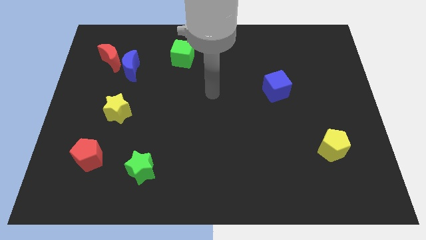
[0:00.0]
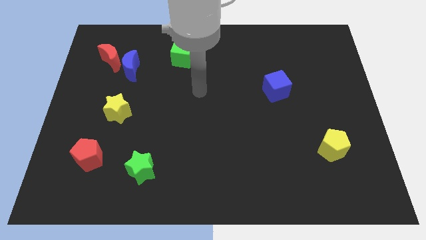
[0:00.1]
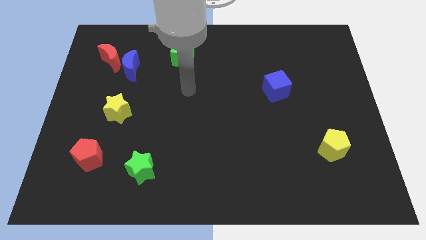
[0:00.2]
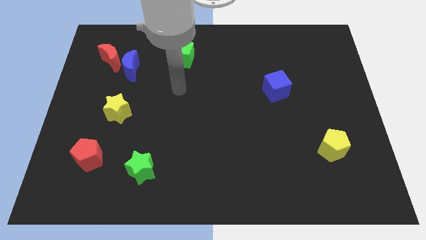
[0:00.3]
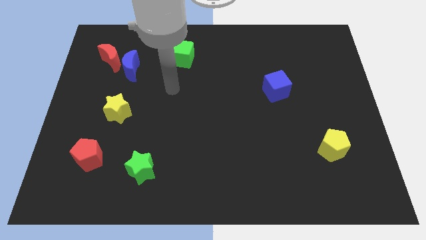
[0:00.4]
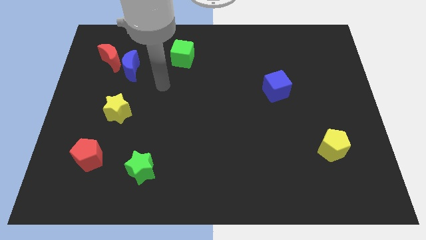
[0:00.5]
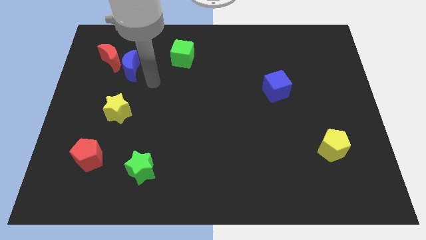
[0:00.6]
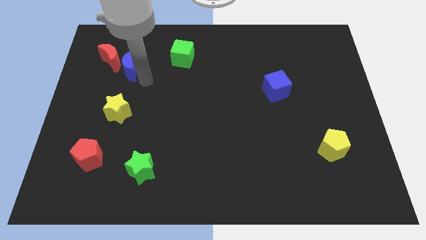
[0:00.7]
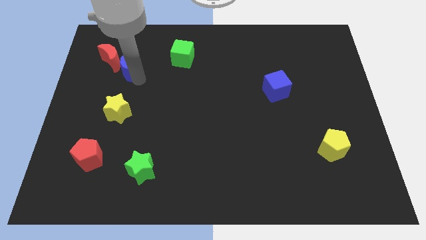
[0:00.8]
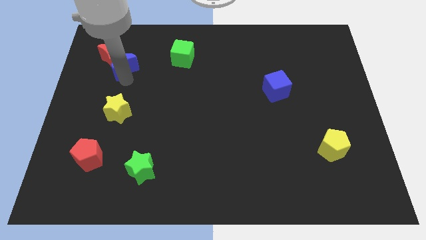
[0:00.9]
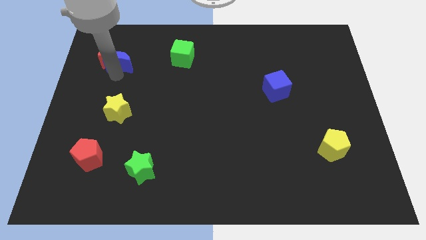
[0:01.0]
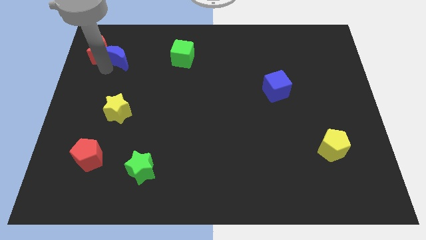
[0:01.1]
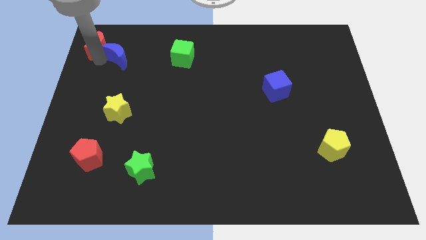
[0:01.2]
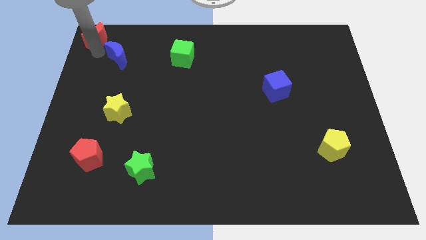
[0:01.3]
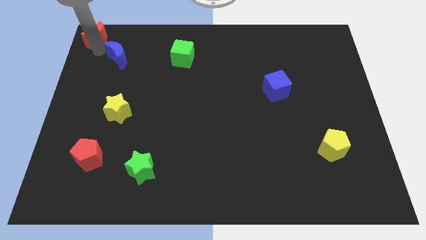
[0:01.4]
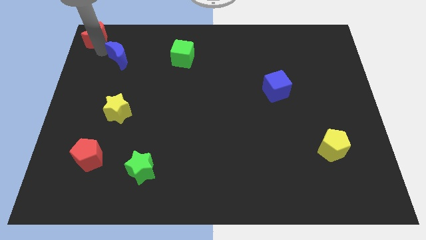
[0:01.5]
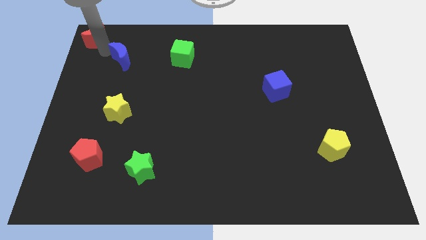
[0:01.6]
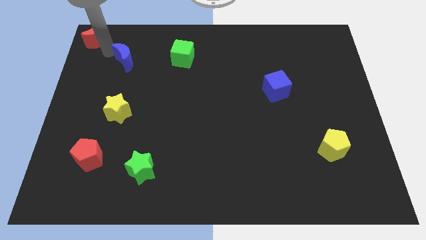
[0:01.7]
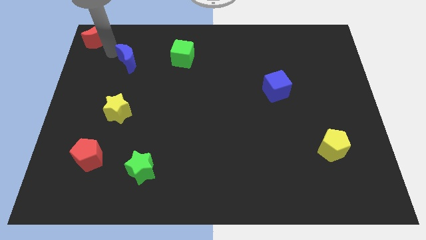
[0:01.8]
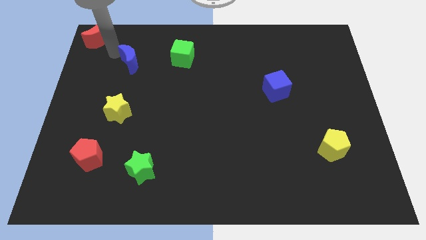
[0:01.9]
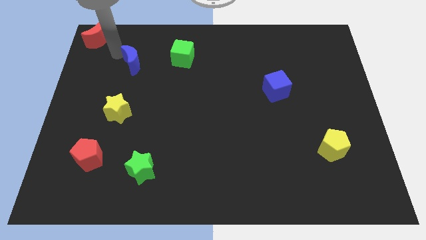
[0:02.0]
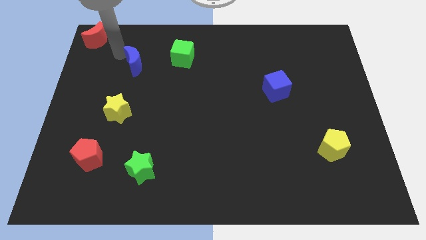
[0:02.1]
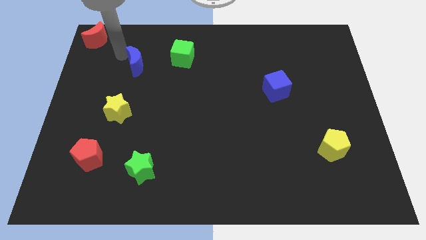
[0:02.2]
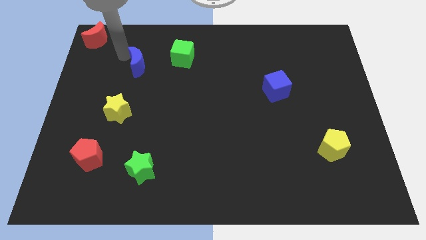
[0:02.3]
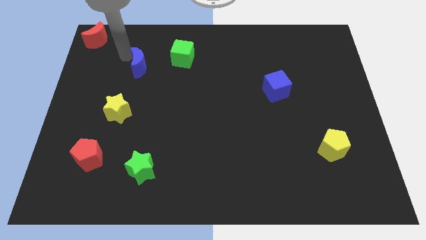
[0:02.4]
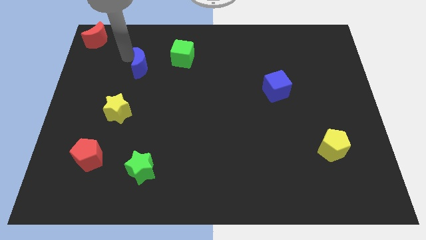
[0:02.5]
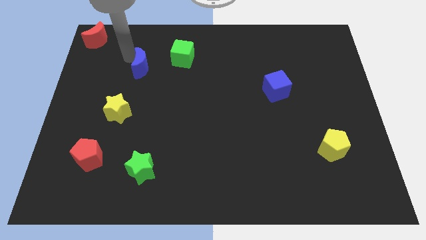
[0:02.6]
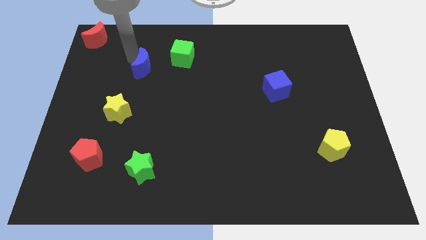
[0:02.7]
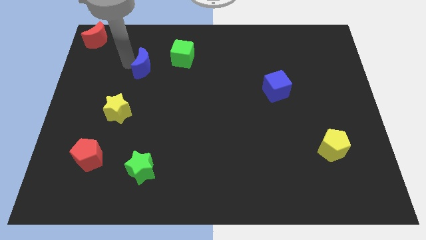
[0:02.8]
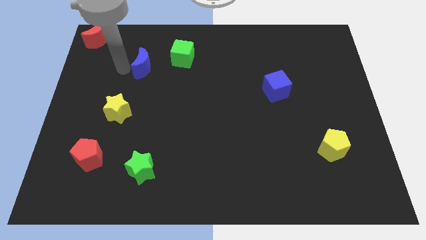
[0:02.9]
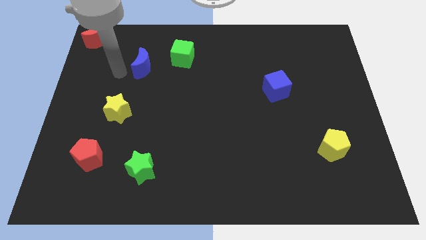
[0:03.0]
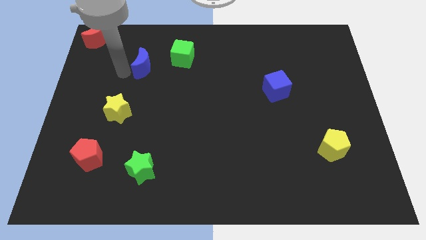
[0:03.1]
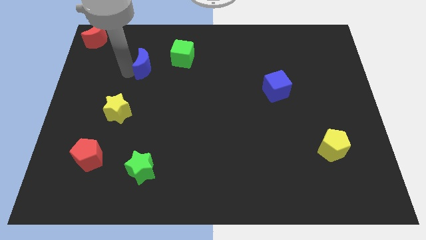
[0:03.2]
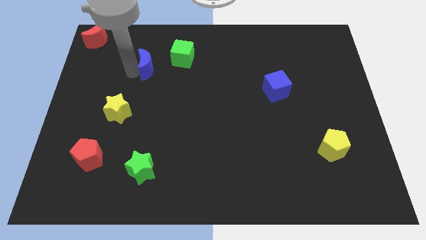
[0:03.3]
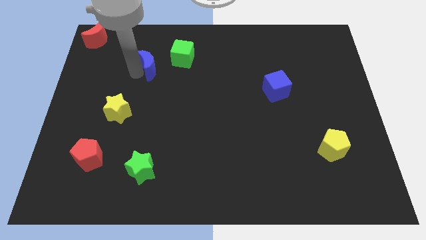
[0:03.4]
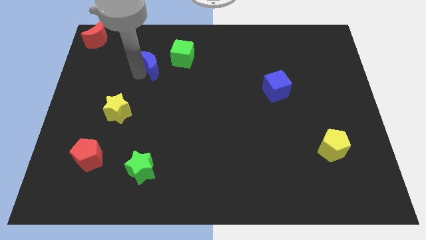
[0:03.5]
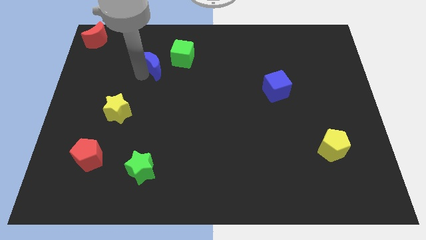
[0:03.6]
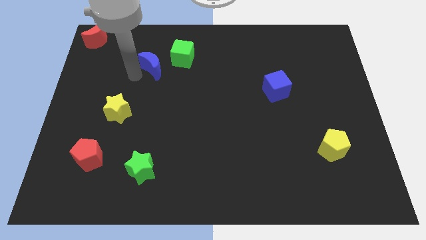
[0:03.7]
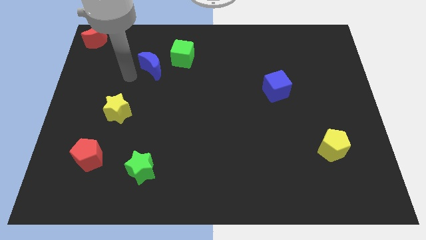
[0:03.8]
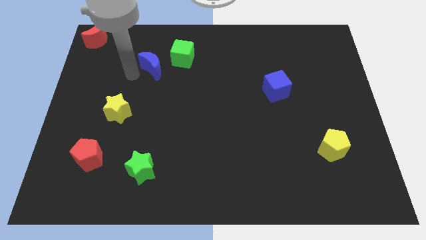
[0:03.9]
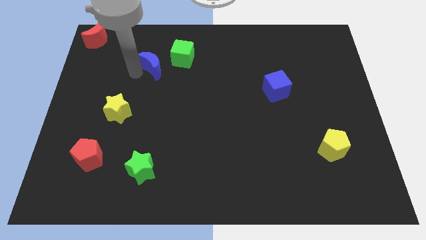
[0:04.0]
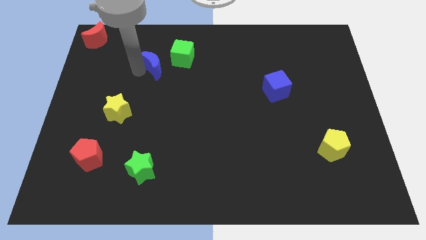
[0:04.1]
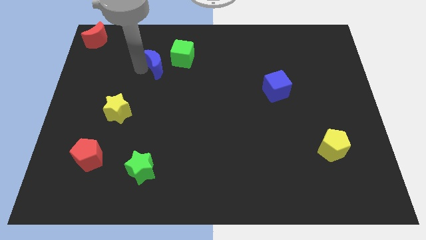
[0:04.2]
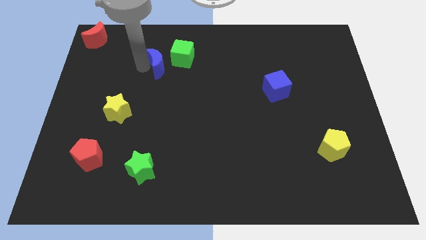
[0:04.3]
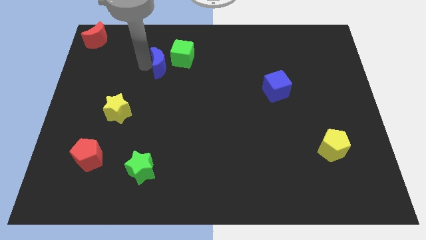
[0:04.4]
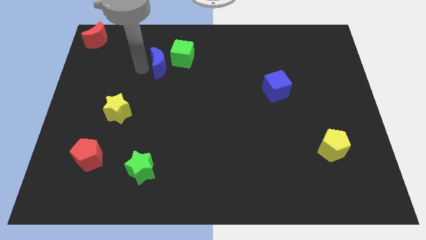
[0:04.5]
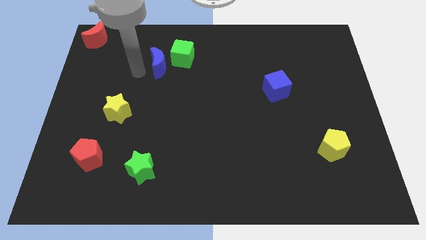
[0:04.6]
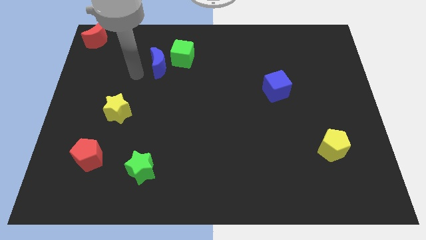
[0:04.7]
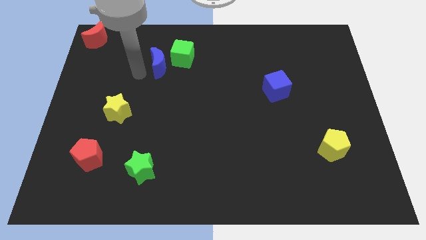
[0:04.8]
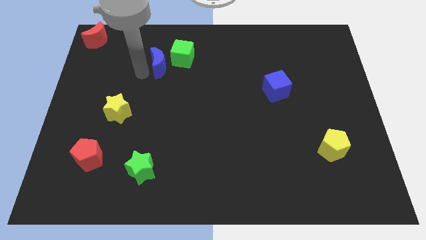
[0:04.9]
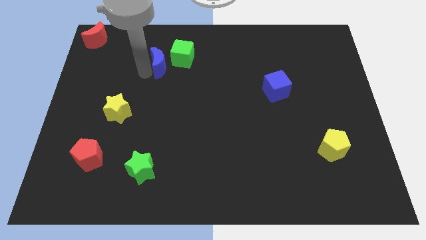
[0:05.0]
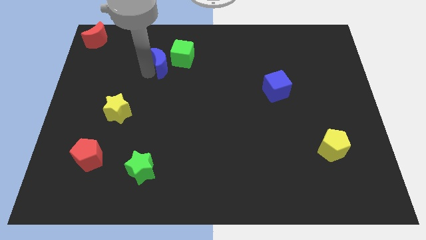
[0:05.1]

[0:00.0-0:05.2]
push the blue moon next to the green cube

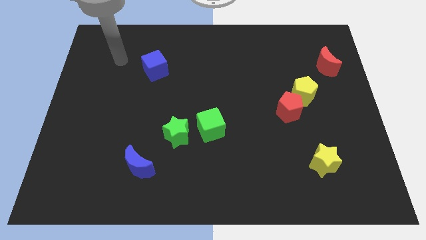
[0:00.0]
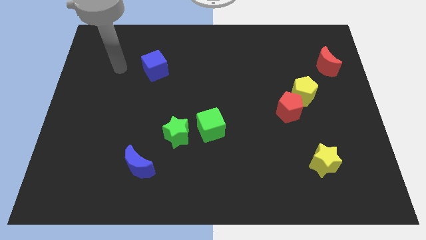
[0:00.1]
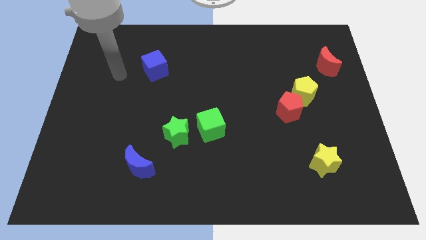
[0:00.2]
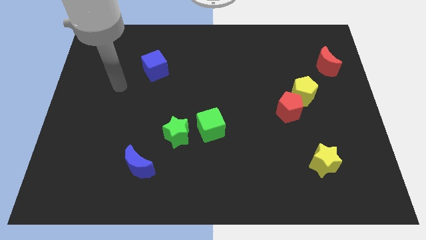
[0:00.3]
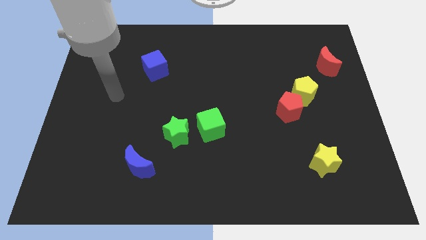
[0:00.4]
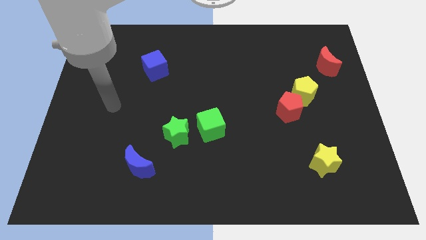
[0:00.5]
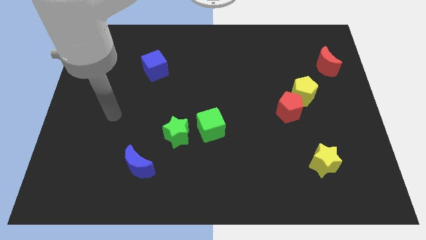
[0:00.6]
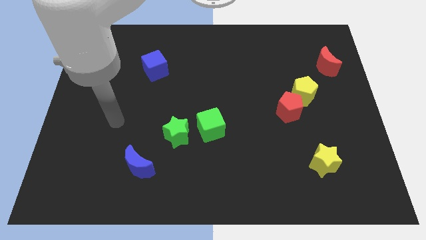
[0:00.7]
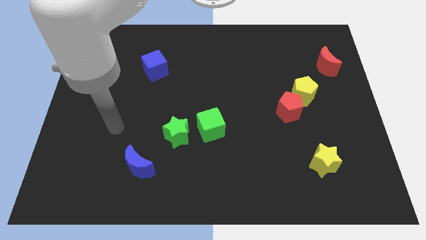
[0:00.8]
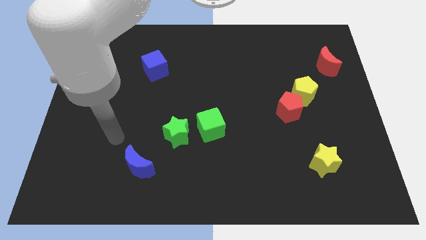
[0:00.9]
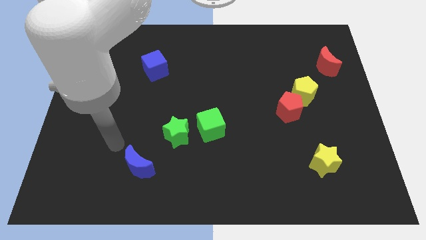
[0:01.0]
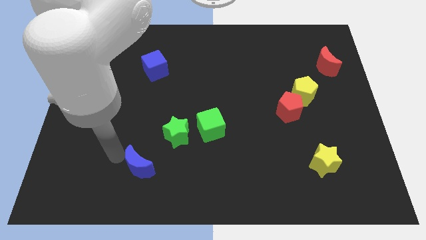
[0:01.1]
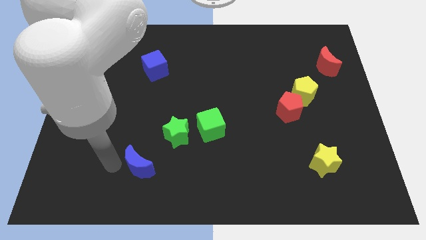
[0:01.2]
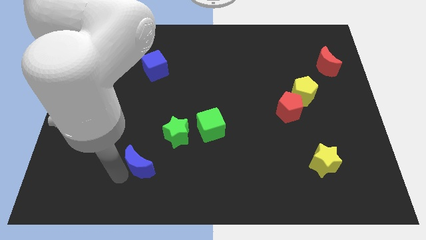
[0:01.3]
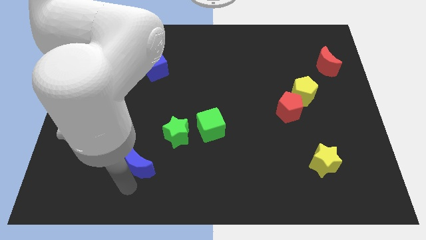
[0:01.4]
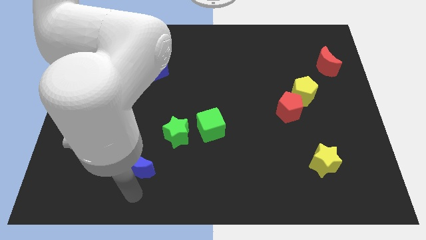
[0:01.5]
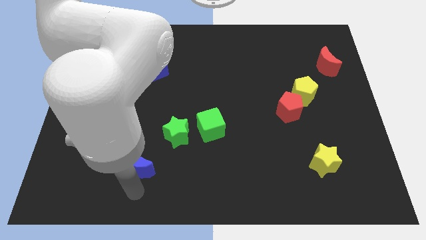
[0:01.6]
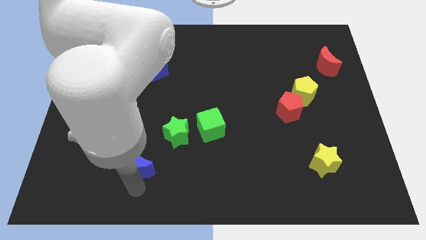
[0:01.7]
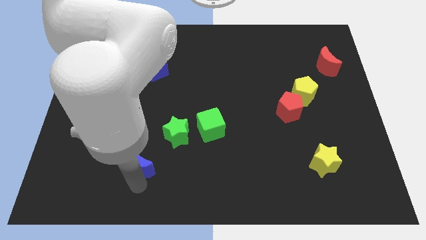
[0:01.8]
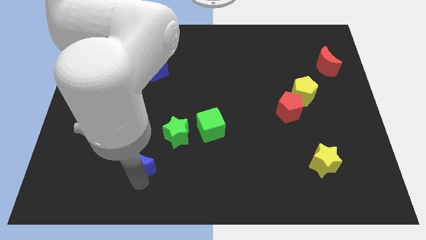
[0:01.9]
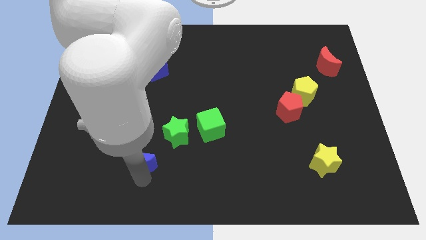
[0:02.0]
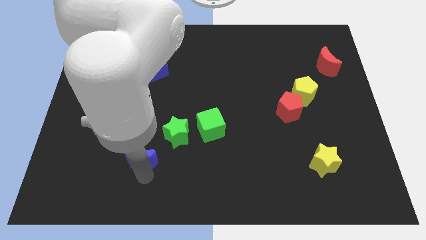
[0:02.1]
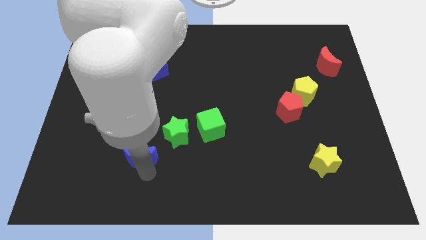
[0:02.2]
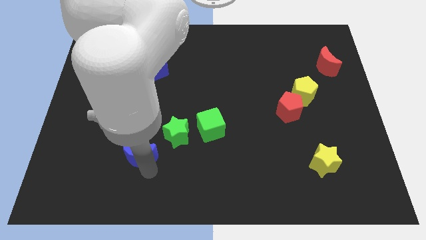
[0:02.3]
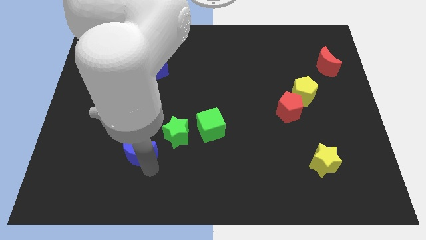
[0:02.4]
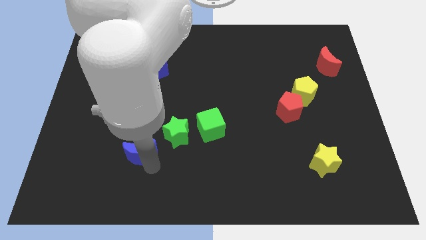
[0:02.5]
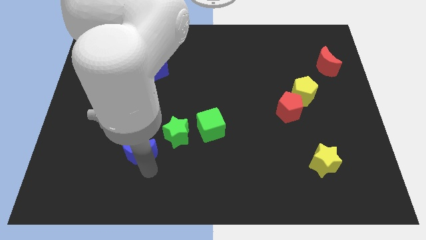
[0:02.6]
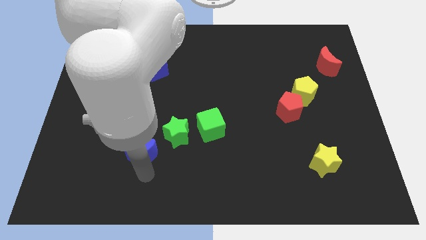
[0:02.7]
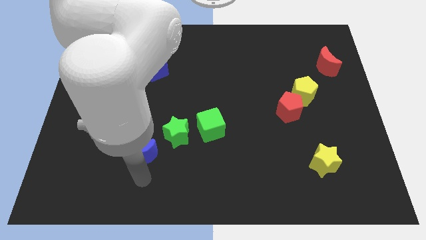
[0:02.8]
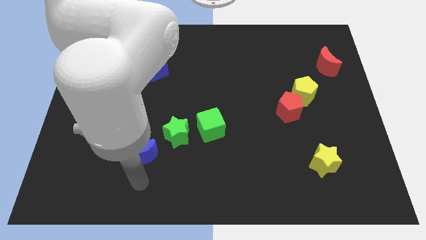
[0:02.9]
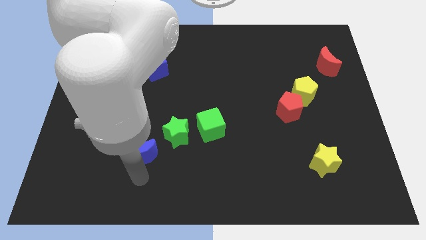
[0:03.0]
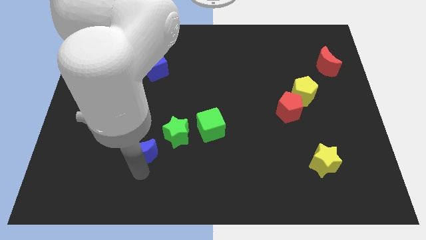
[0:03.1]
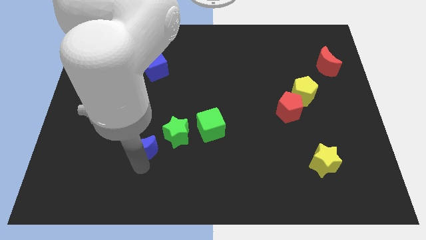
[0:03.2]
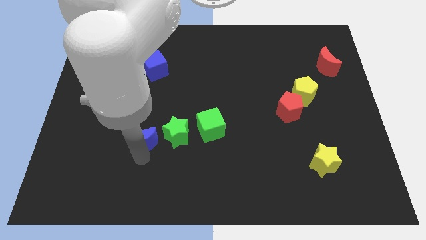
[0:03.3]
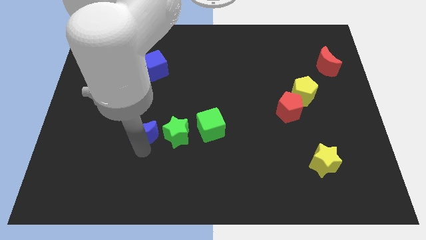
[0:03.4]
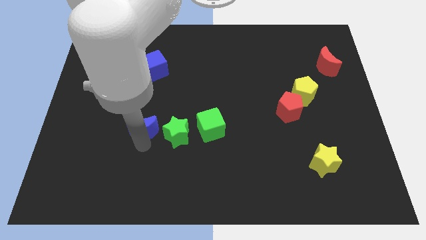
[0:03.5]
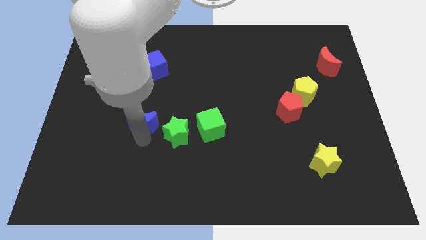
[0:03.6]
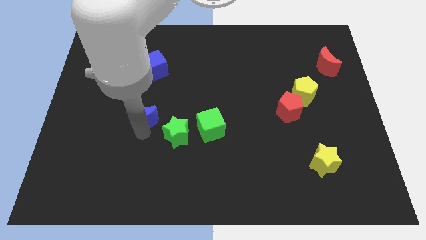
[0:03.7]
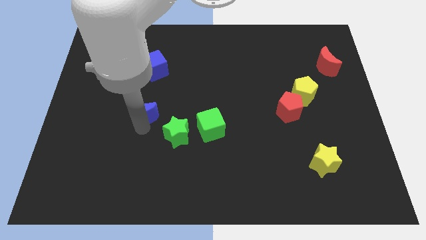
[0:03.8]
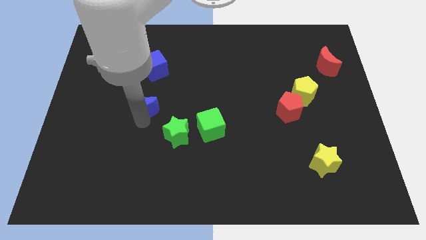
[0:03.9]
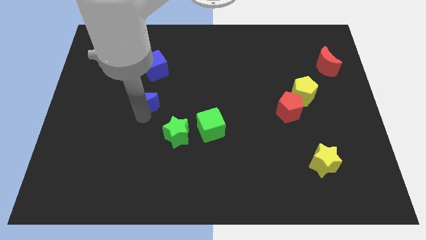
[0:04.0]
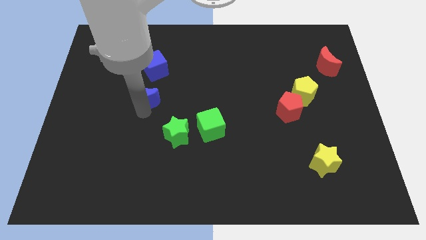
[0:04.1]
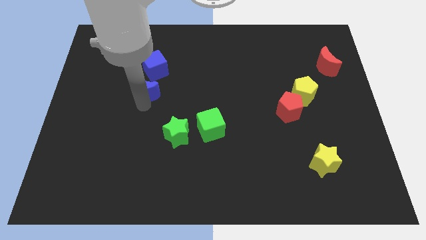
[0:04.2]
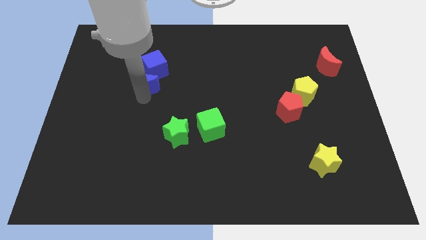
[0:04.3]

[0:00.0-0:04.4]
move the blue moon towards the blue cube
